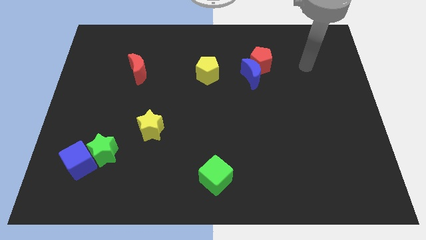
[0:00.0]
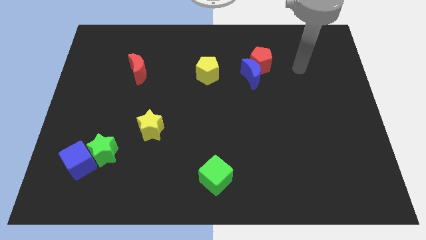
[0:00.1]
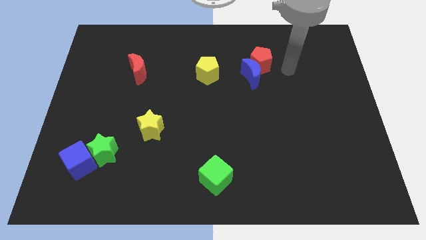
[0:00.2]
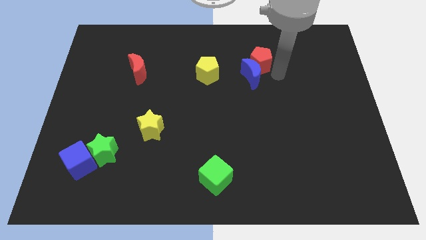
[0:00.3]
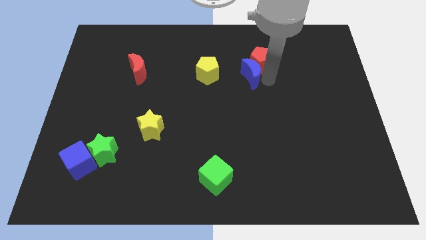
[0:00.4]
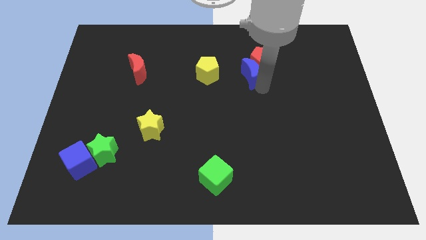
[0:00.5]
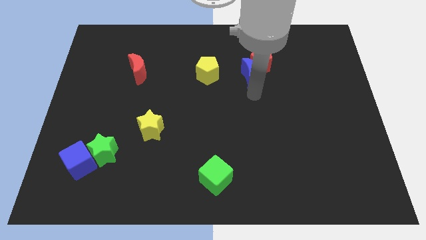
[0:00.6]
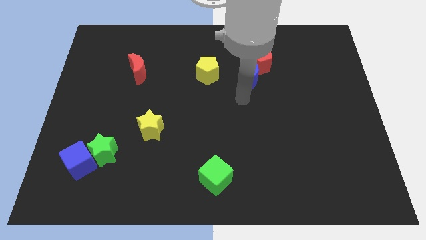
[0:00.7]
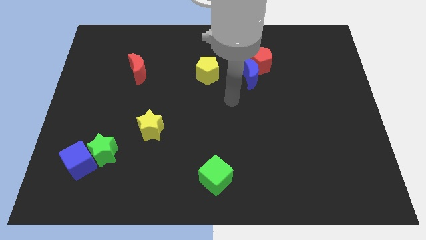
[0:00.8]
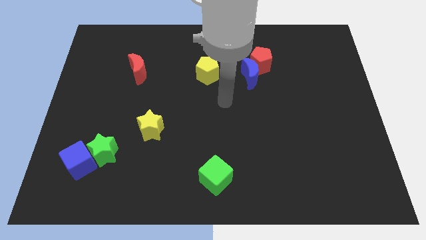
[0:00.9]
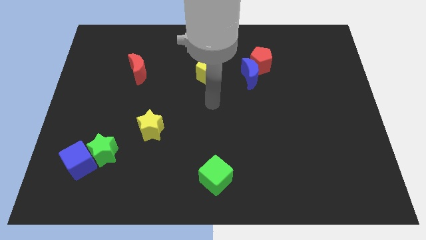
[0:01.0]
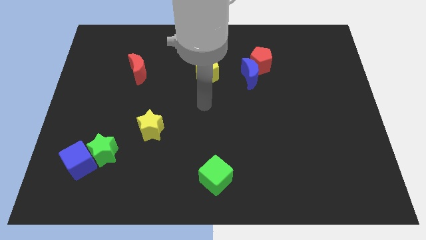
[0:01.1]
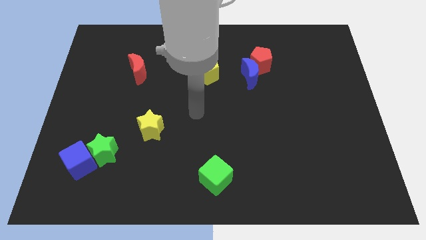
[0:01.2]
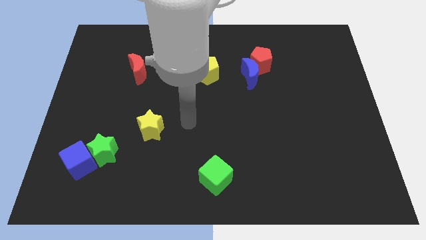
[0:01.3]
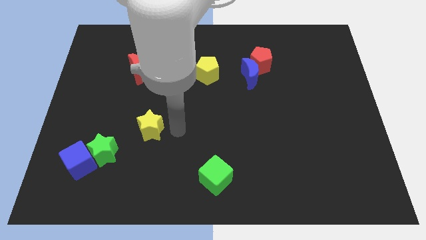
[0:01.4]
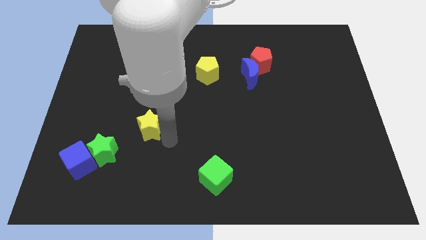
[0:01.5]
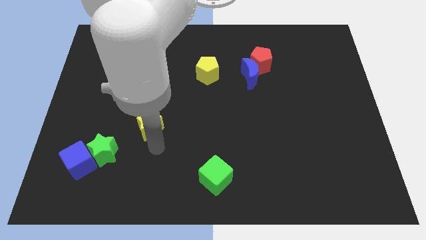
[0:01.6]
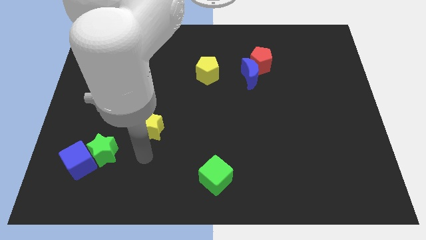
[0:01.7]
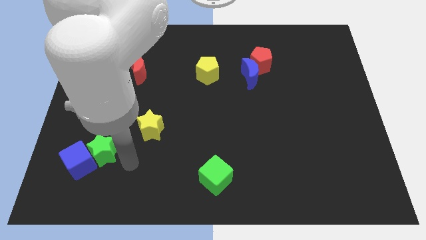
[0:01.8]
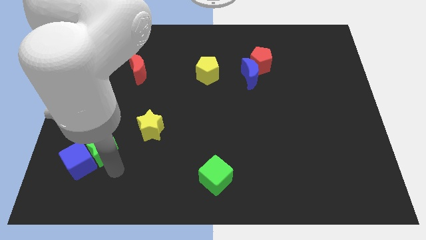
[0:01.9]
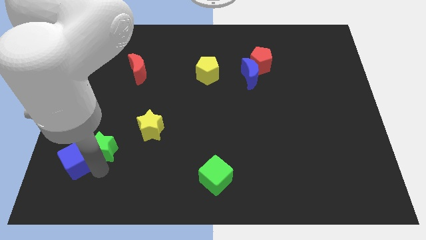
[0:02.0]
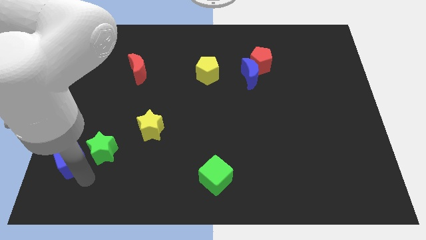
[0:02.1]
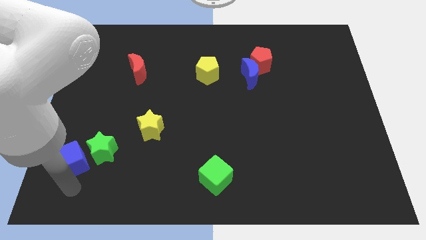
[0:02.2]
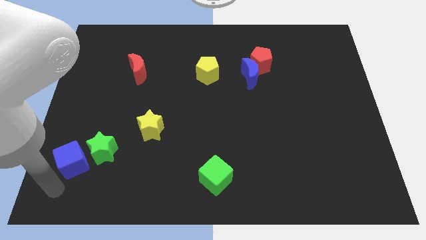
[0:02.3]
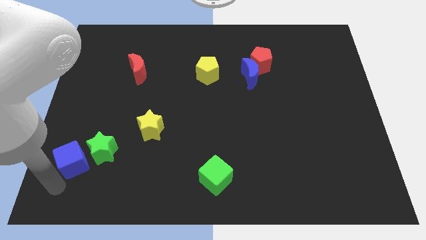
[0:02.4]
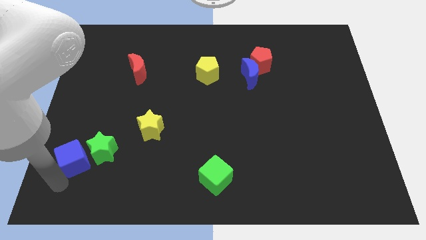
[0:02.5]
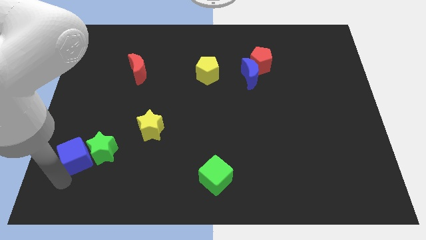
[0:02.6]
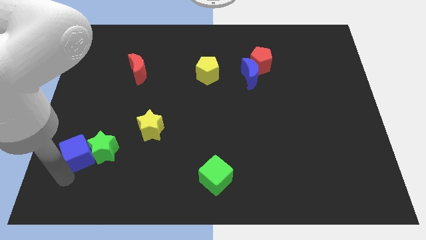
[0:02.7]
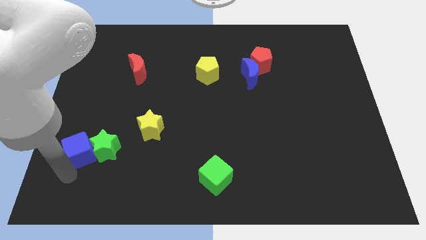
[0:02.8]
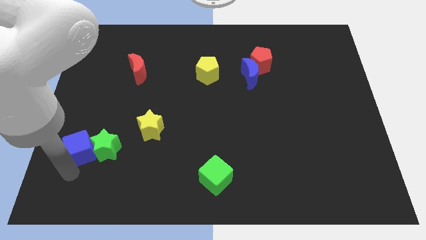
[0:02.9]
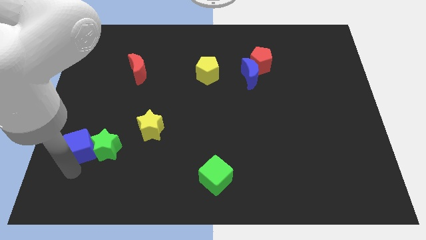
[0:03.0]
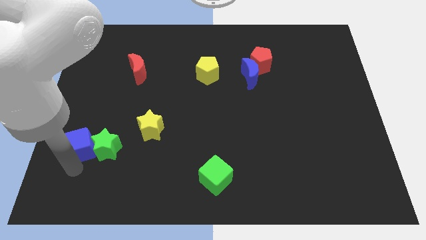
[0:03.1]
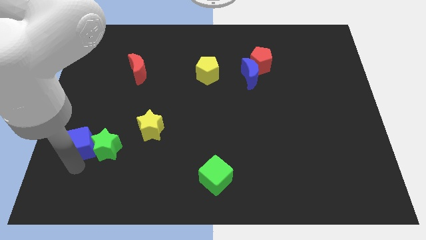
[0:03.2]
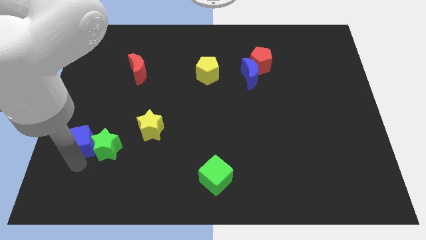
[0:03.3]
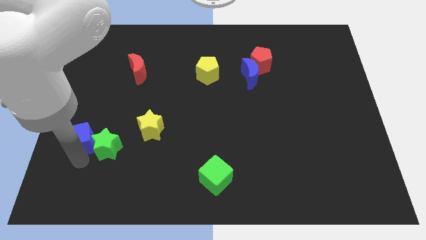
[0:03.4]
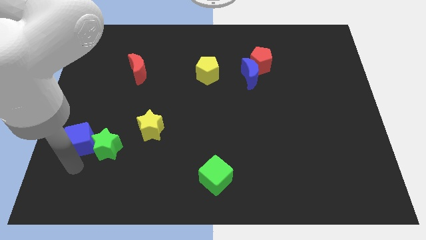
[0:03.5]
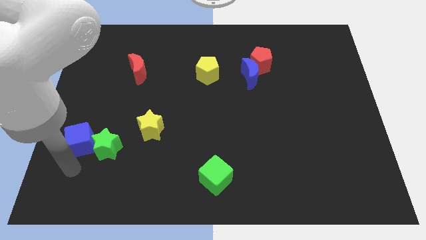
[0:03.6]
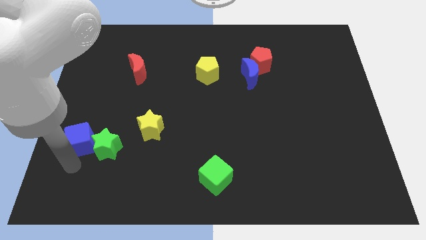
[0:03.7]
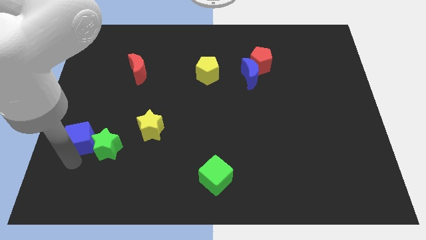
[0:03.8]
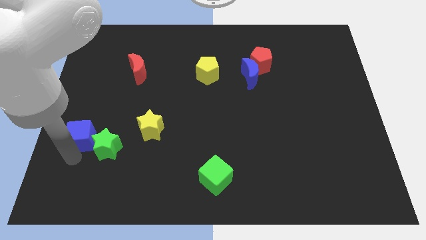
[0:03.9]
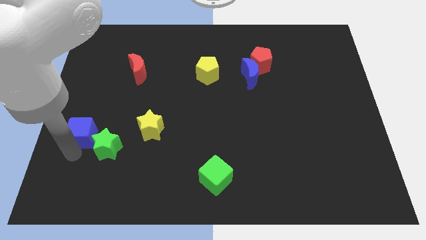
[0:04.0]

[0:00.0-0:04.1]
push the blue cube up a bit

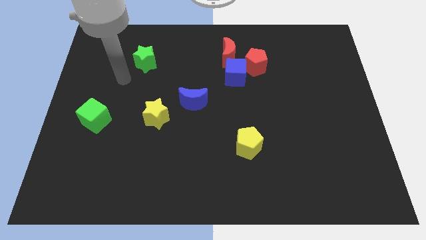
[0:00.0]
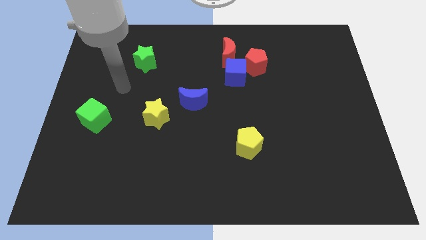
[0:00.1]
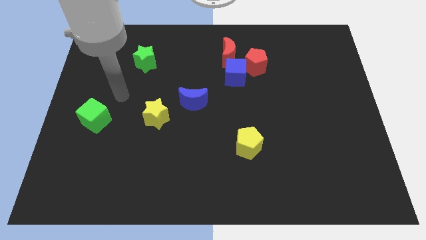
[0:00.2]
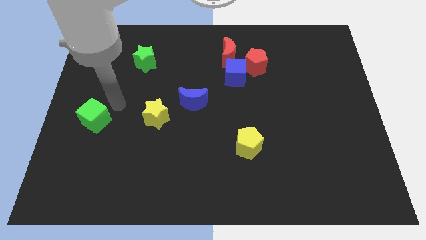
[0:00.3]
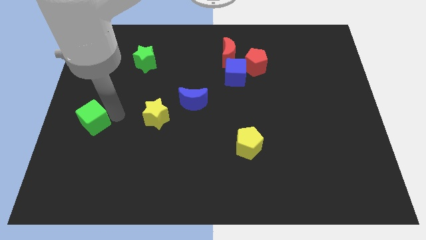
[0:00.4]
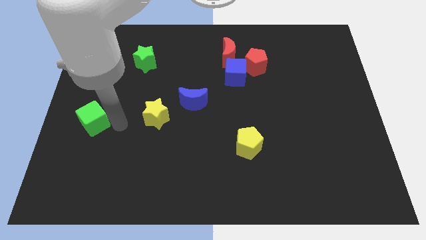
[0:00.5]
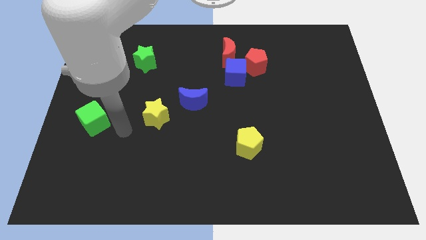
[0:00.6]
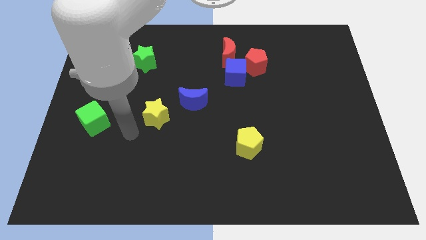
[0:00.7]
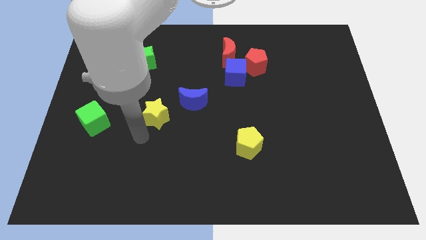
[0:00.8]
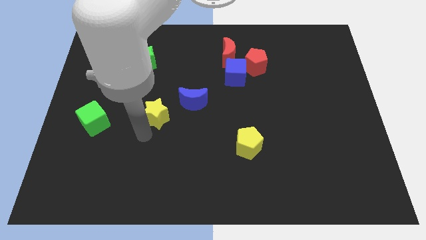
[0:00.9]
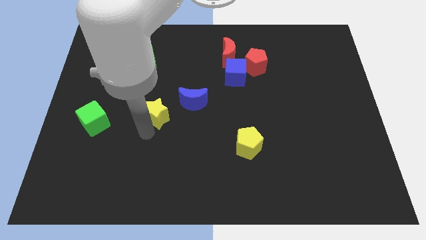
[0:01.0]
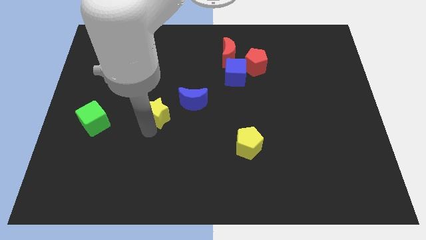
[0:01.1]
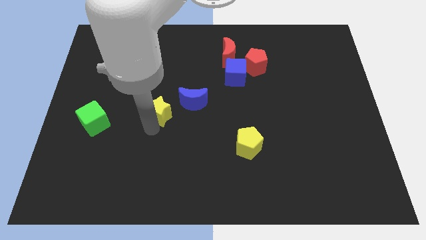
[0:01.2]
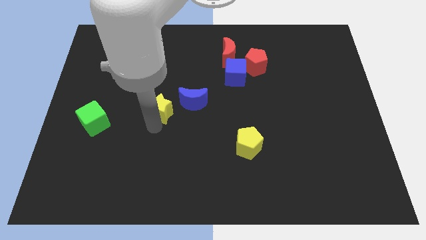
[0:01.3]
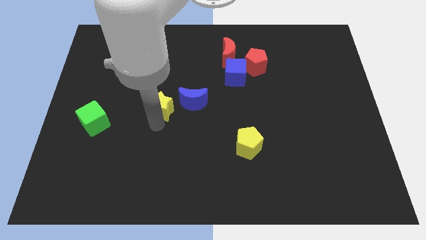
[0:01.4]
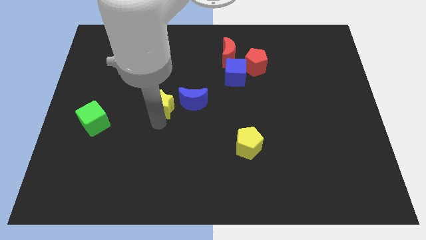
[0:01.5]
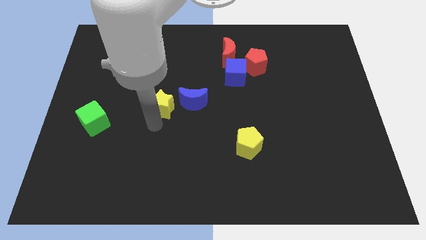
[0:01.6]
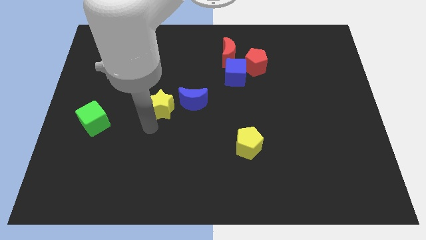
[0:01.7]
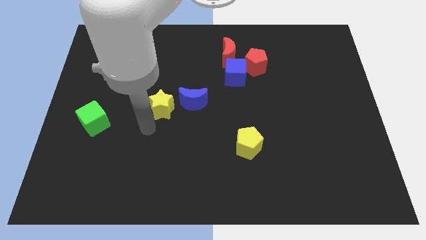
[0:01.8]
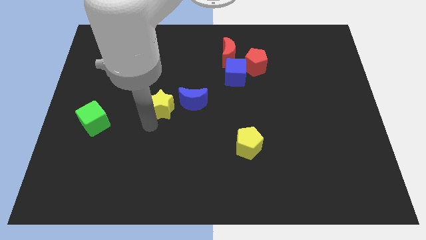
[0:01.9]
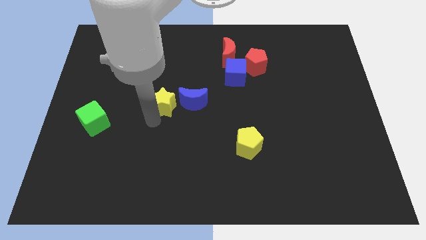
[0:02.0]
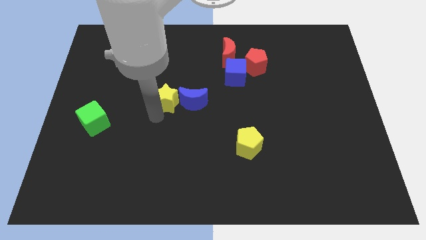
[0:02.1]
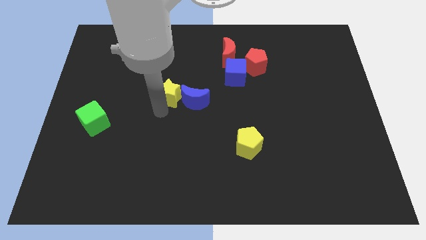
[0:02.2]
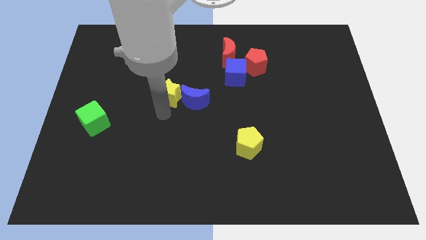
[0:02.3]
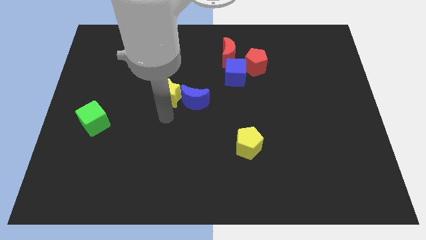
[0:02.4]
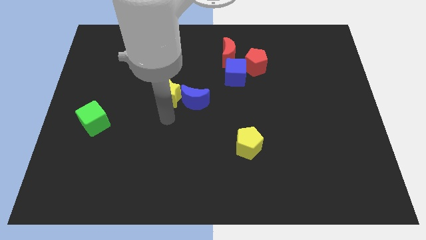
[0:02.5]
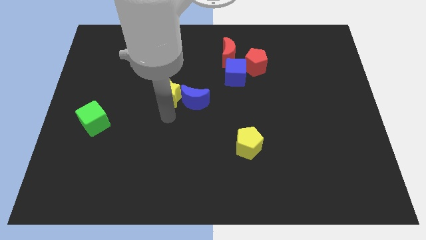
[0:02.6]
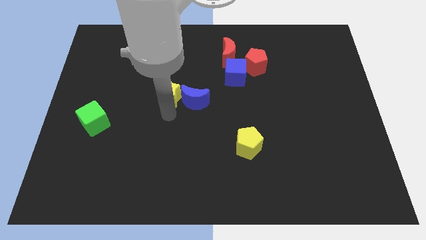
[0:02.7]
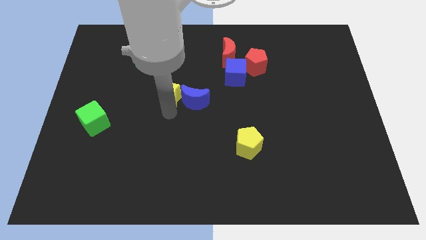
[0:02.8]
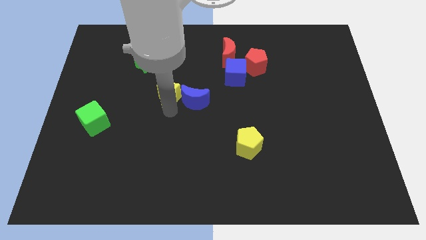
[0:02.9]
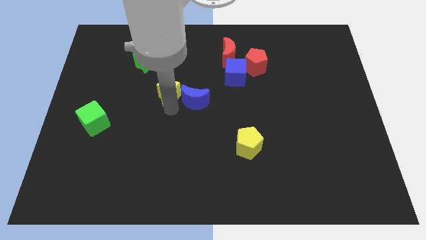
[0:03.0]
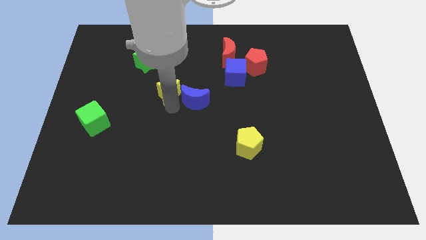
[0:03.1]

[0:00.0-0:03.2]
push the yellow star upwards a bit

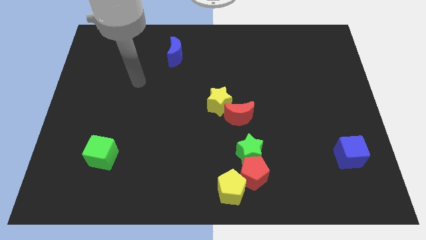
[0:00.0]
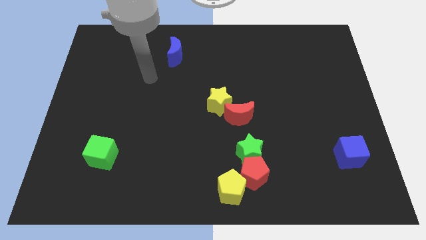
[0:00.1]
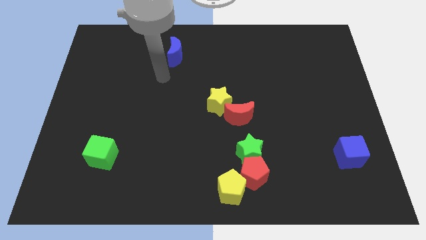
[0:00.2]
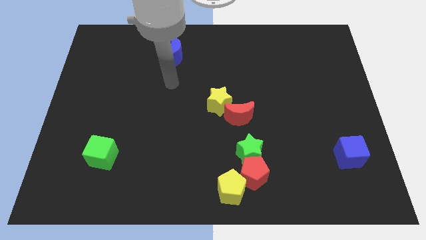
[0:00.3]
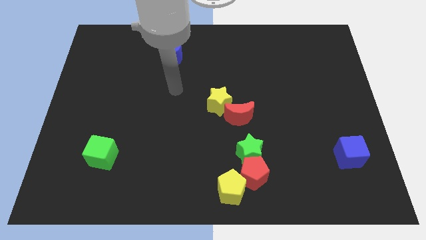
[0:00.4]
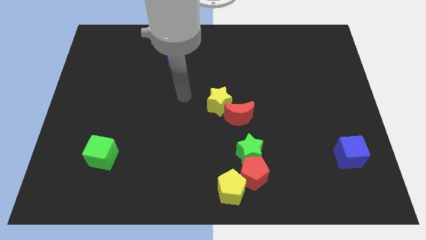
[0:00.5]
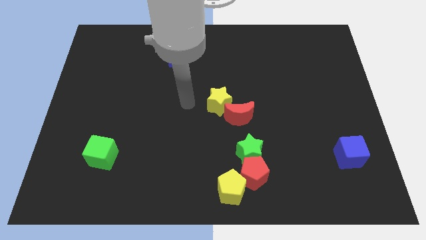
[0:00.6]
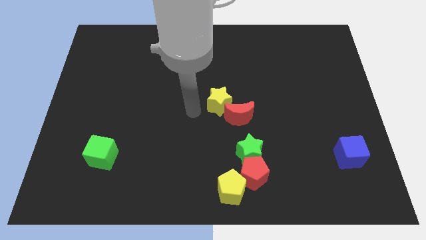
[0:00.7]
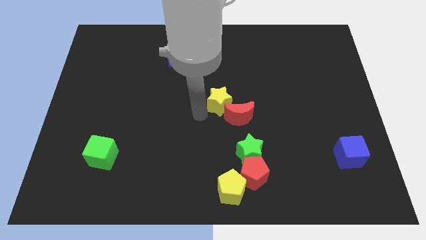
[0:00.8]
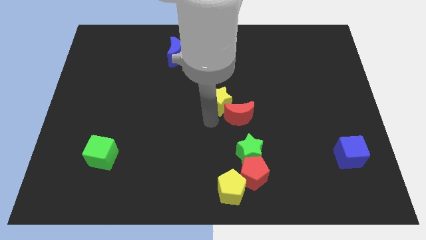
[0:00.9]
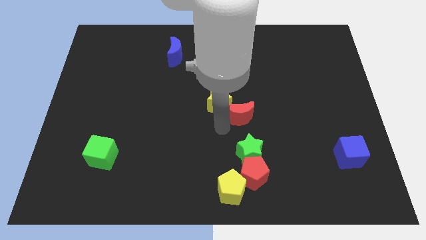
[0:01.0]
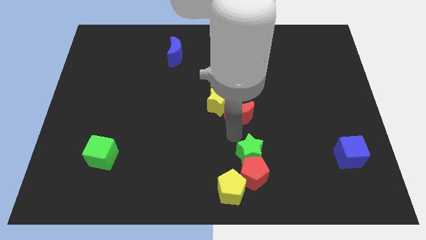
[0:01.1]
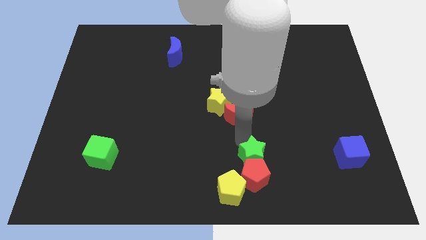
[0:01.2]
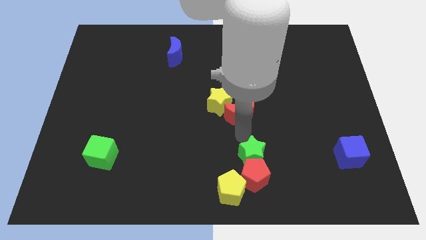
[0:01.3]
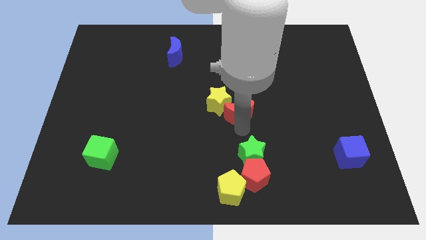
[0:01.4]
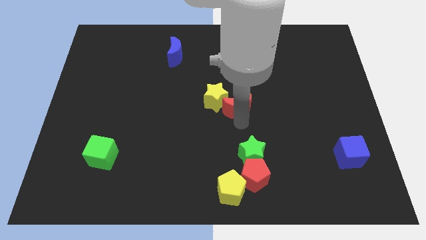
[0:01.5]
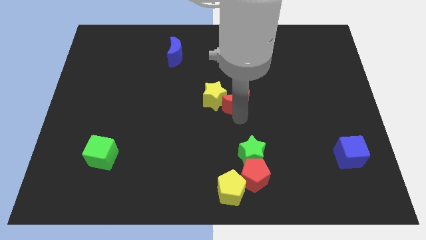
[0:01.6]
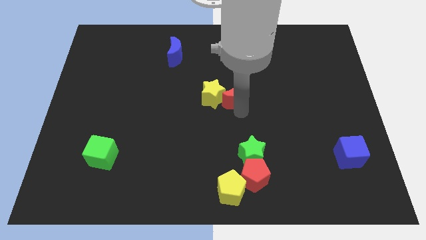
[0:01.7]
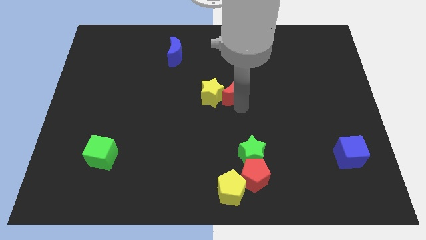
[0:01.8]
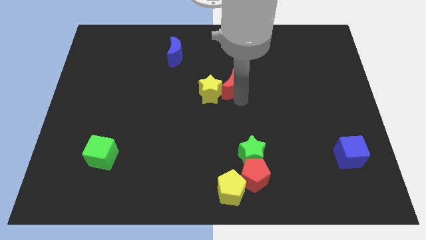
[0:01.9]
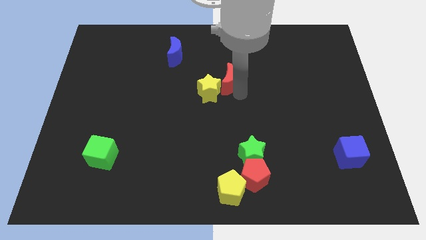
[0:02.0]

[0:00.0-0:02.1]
slightly slide the red moon diagonally up and to the left
